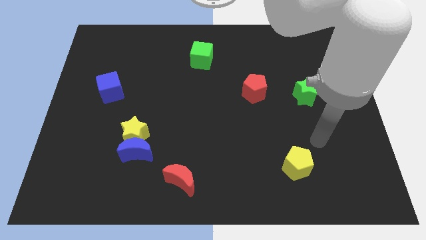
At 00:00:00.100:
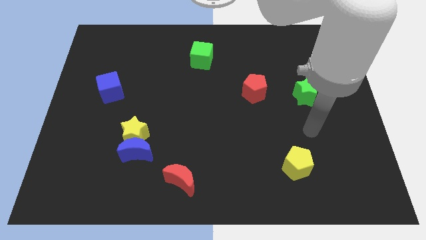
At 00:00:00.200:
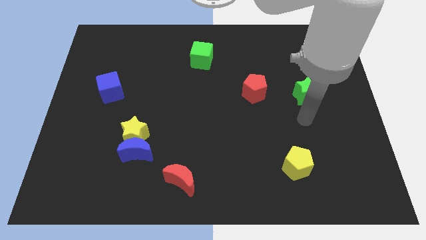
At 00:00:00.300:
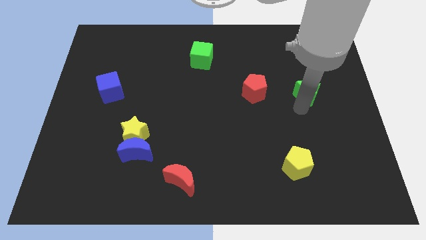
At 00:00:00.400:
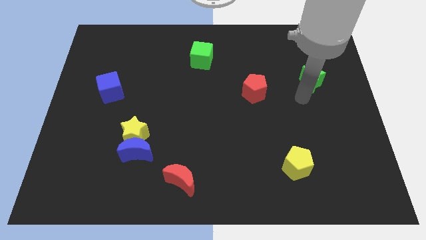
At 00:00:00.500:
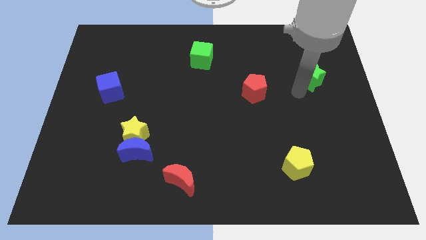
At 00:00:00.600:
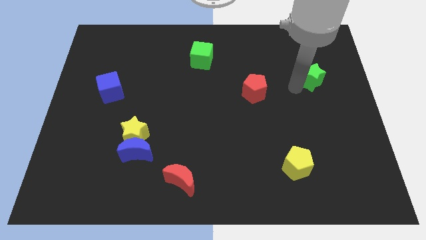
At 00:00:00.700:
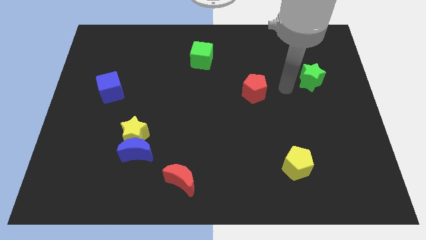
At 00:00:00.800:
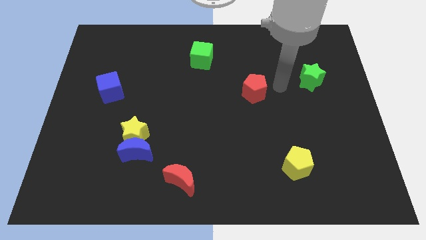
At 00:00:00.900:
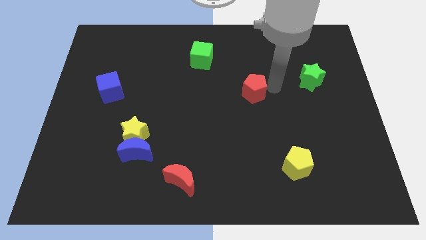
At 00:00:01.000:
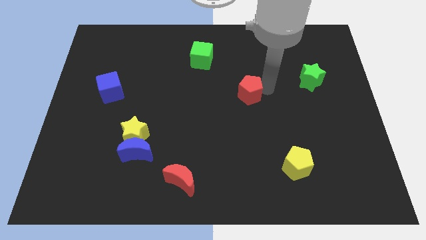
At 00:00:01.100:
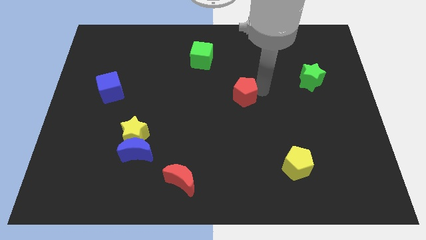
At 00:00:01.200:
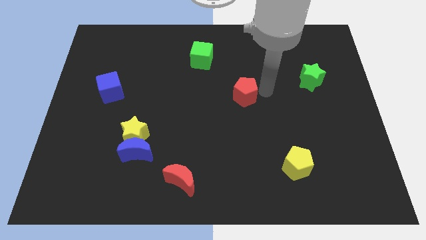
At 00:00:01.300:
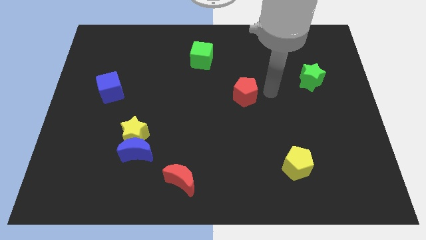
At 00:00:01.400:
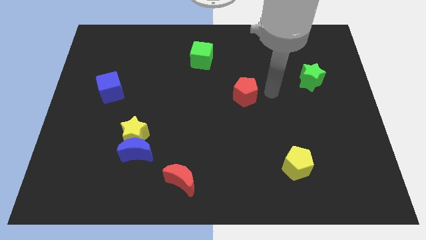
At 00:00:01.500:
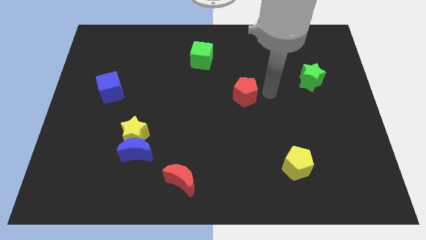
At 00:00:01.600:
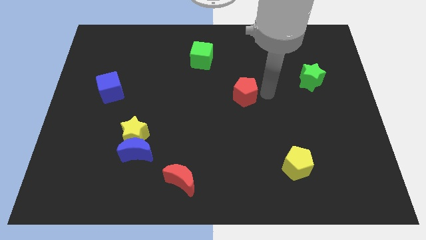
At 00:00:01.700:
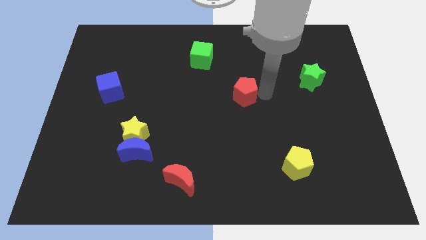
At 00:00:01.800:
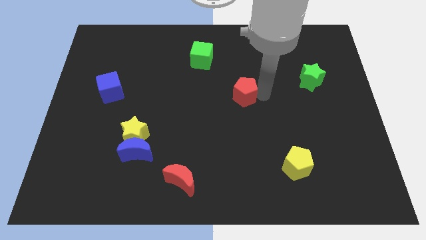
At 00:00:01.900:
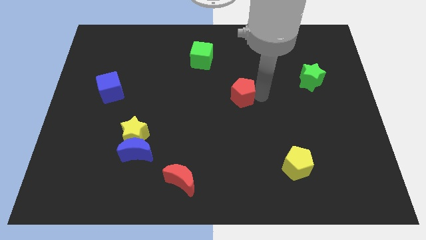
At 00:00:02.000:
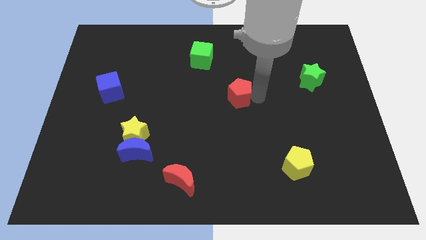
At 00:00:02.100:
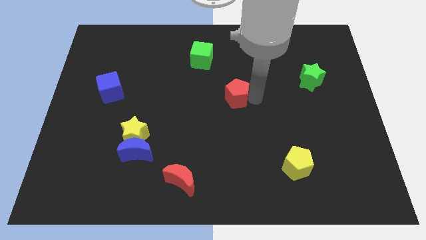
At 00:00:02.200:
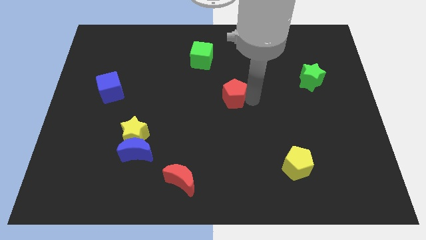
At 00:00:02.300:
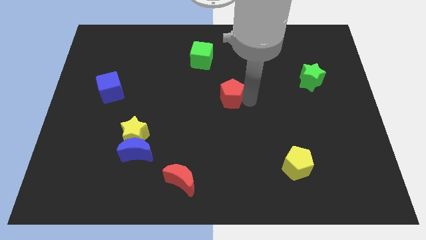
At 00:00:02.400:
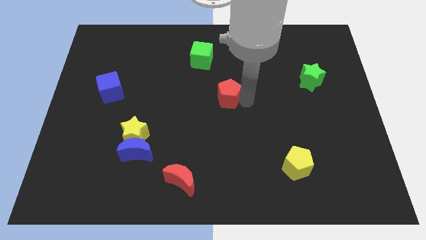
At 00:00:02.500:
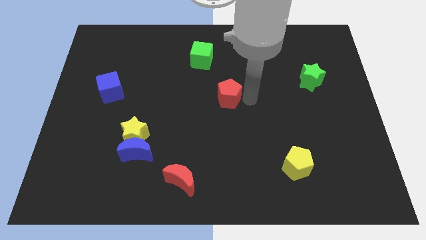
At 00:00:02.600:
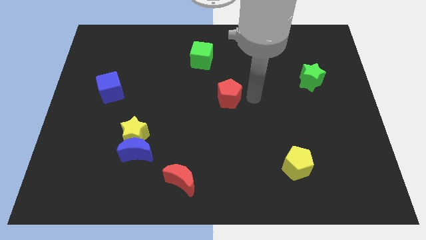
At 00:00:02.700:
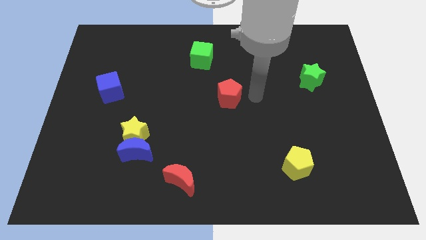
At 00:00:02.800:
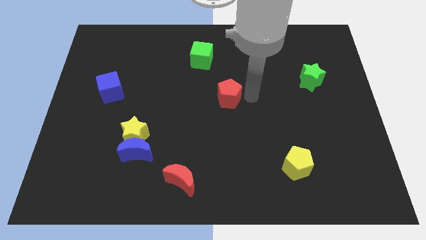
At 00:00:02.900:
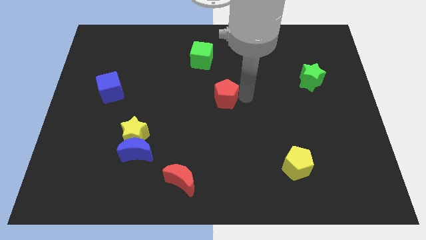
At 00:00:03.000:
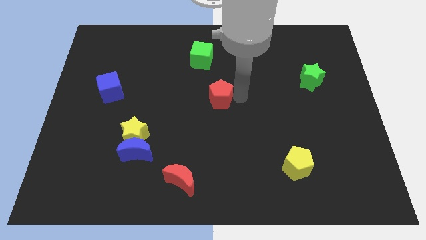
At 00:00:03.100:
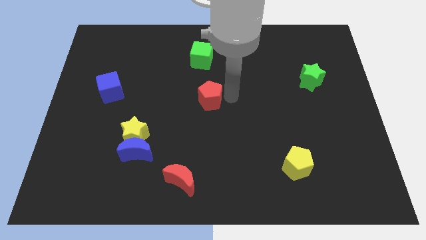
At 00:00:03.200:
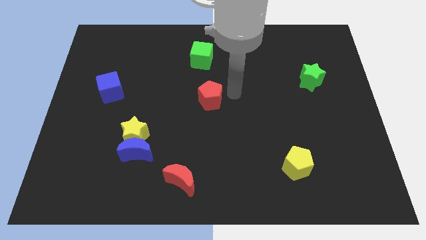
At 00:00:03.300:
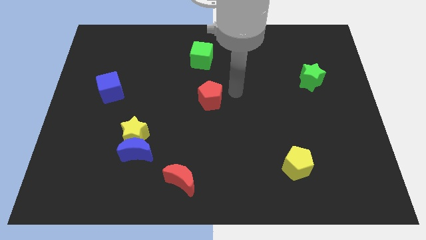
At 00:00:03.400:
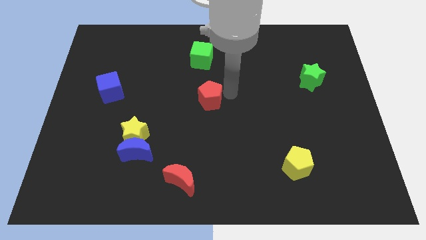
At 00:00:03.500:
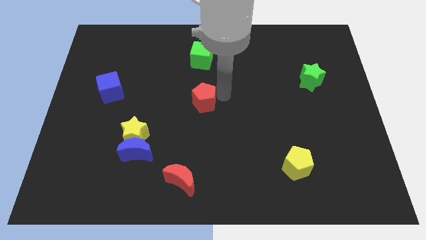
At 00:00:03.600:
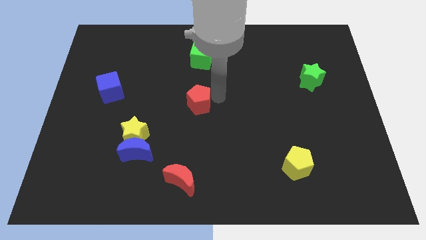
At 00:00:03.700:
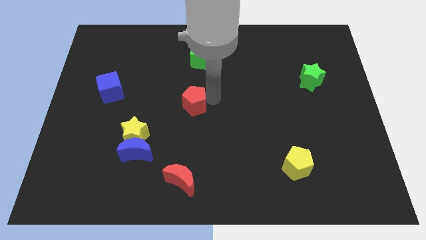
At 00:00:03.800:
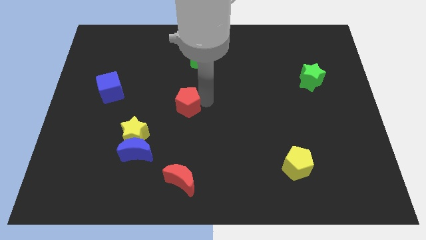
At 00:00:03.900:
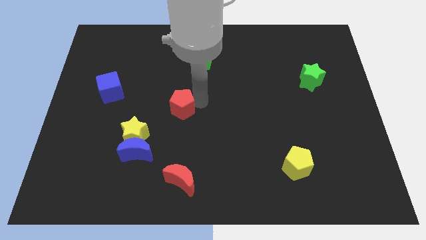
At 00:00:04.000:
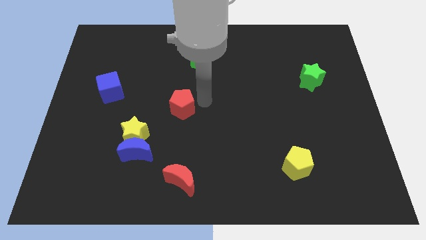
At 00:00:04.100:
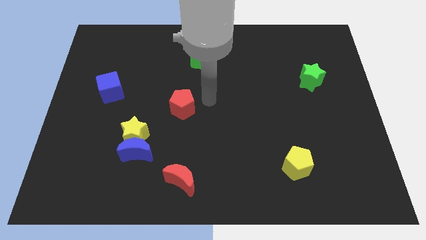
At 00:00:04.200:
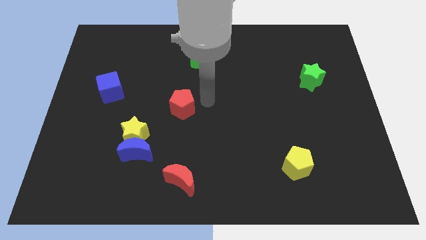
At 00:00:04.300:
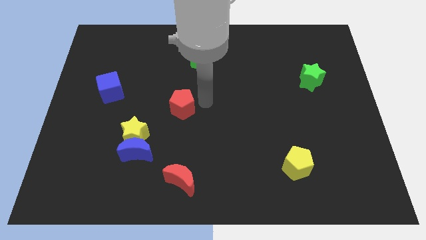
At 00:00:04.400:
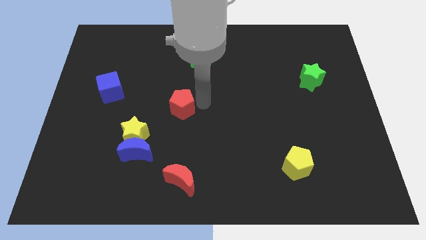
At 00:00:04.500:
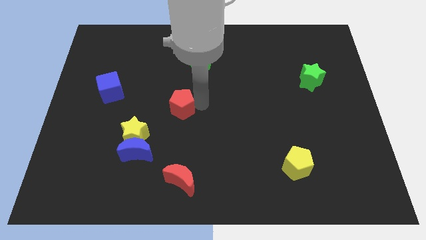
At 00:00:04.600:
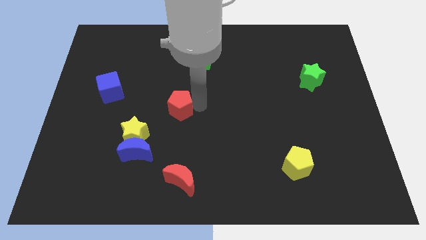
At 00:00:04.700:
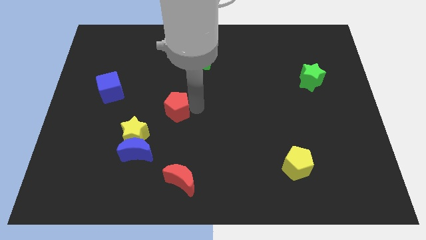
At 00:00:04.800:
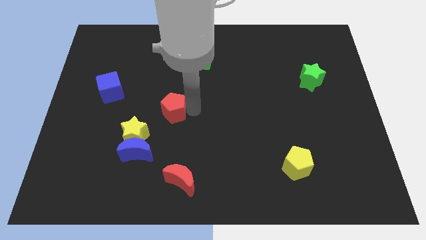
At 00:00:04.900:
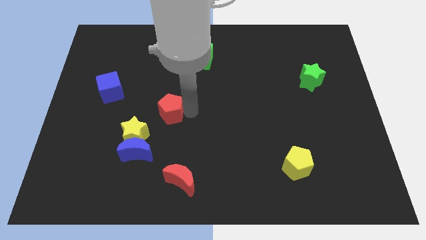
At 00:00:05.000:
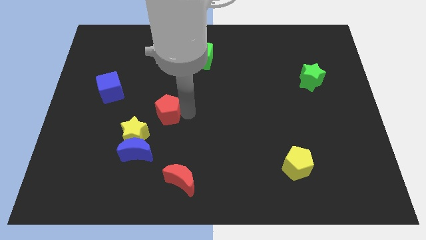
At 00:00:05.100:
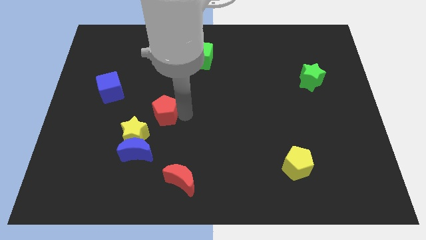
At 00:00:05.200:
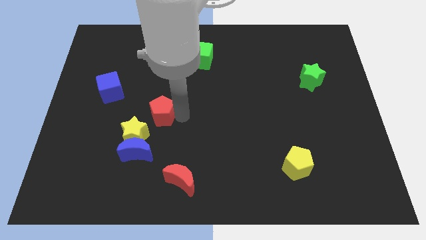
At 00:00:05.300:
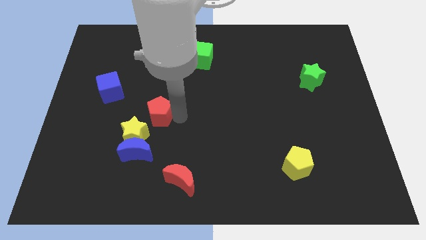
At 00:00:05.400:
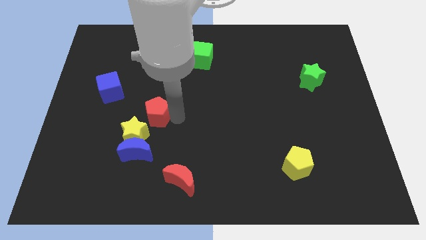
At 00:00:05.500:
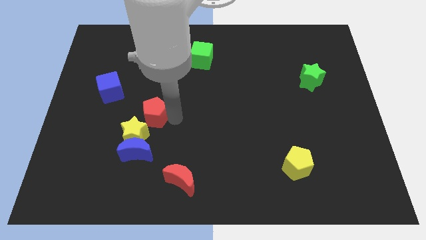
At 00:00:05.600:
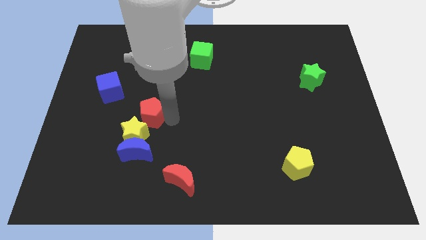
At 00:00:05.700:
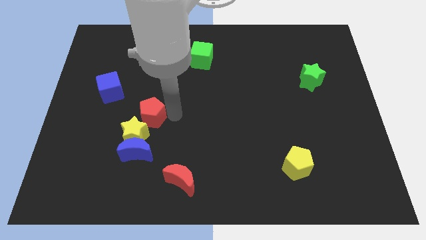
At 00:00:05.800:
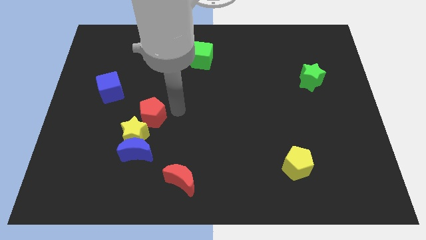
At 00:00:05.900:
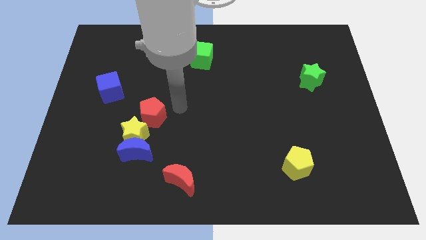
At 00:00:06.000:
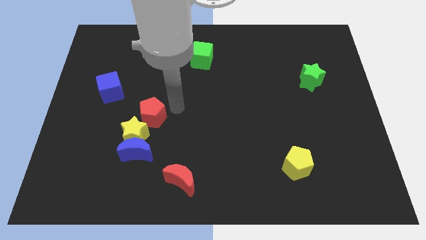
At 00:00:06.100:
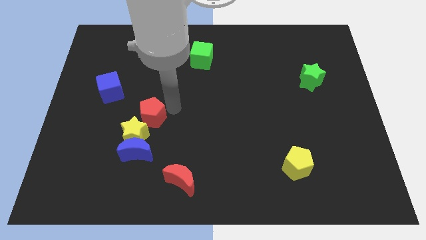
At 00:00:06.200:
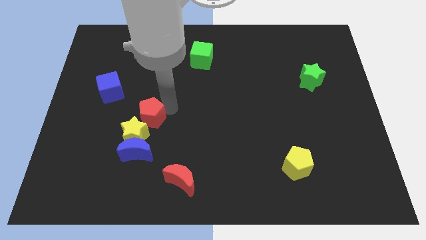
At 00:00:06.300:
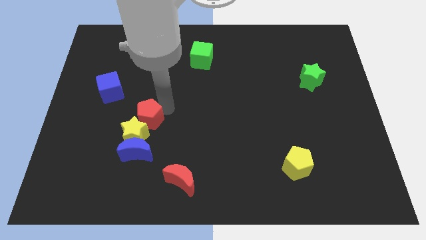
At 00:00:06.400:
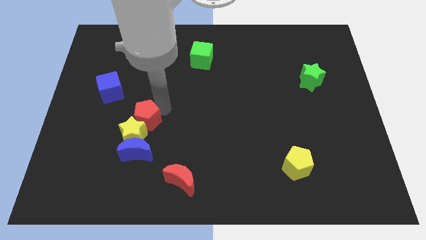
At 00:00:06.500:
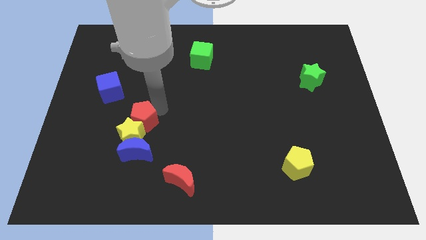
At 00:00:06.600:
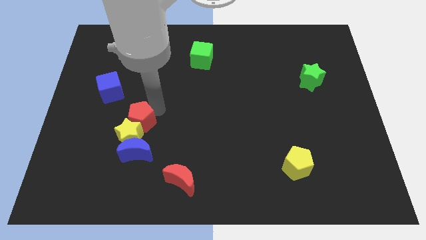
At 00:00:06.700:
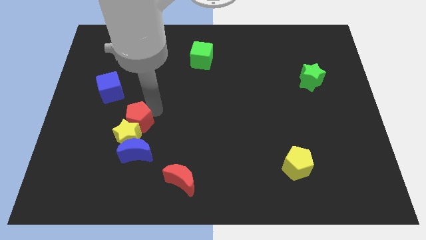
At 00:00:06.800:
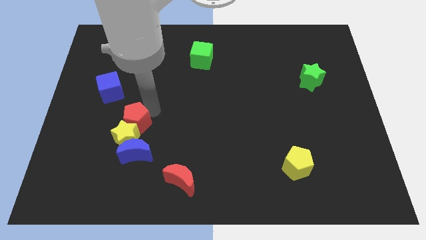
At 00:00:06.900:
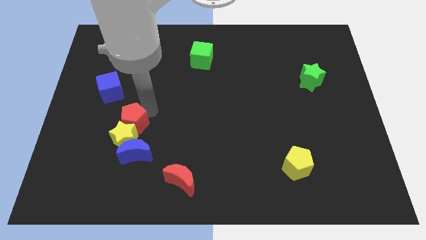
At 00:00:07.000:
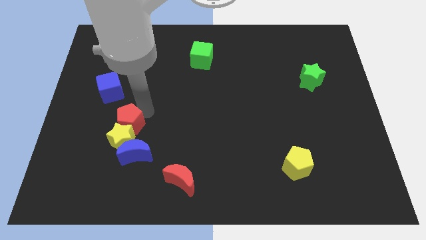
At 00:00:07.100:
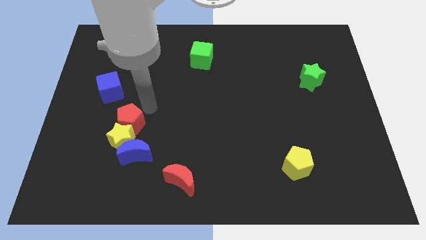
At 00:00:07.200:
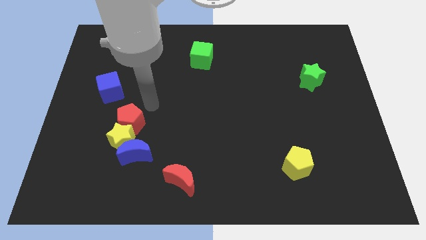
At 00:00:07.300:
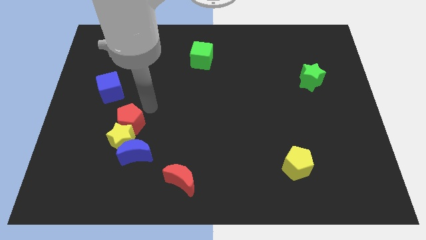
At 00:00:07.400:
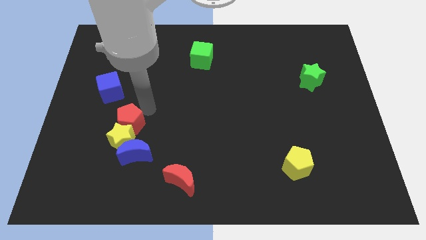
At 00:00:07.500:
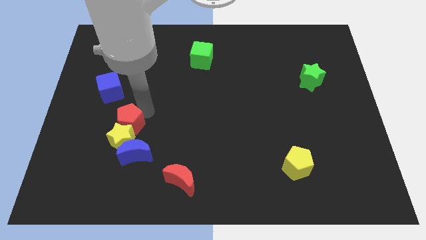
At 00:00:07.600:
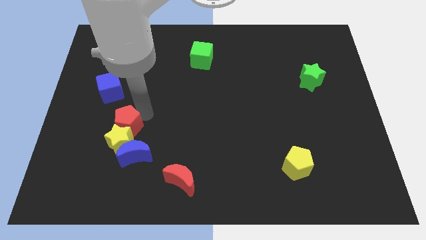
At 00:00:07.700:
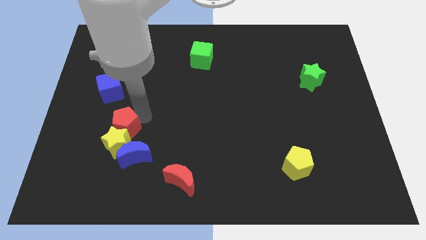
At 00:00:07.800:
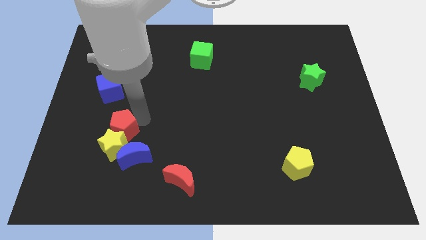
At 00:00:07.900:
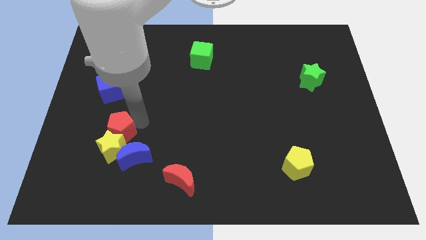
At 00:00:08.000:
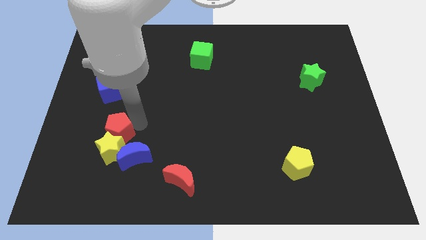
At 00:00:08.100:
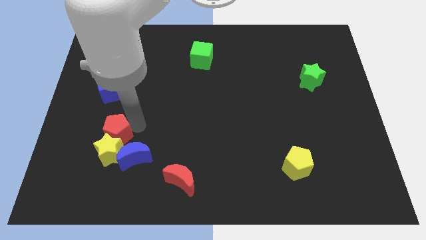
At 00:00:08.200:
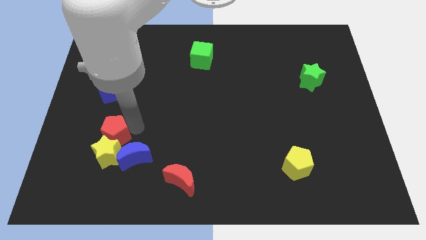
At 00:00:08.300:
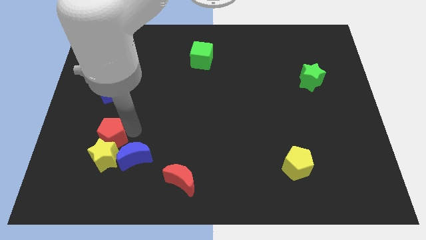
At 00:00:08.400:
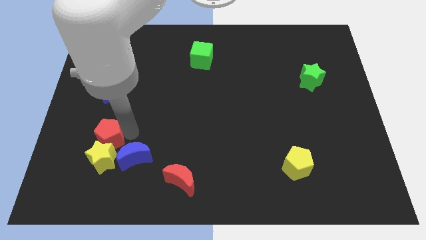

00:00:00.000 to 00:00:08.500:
put the red pentagon just left of the blue moon
